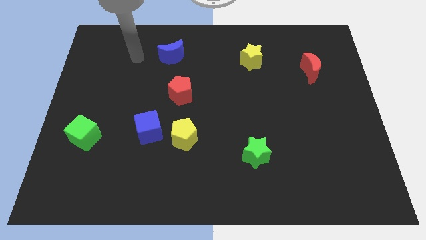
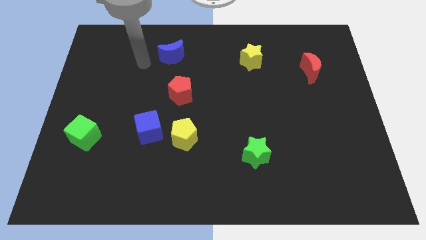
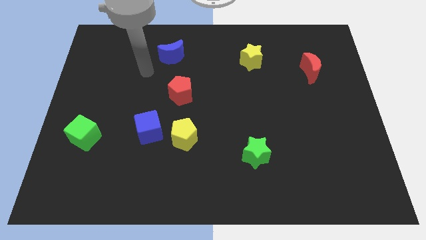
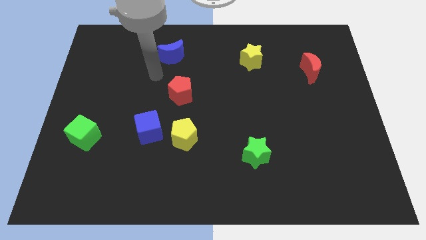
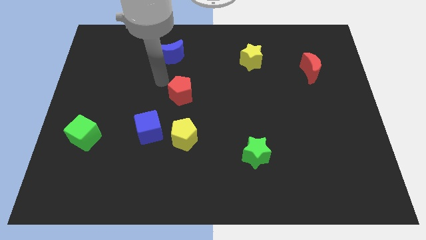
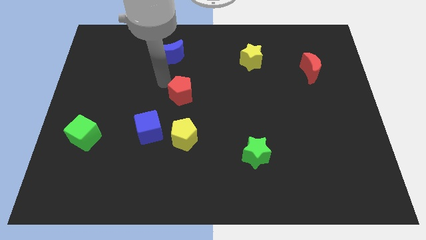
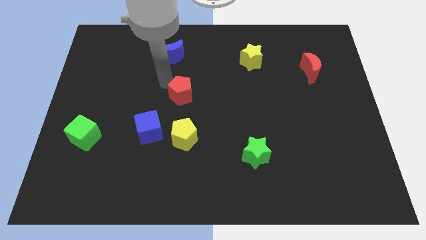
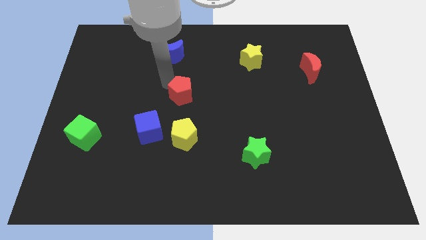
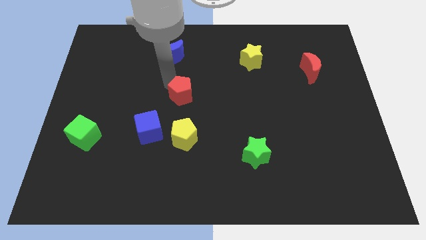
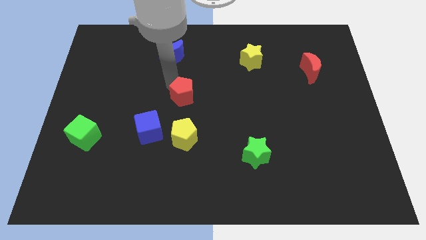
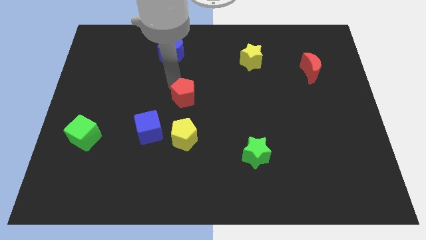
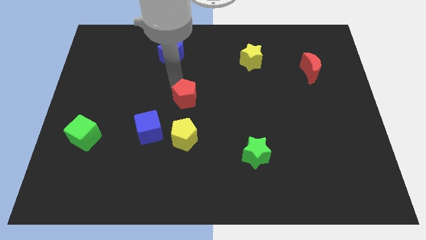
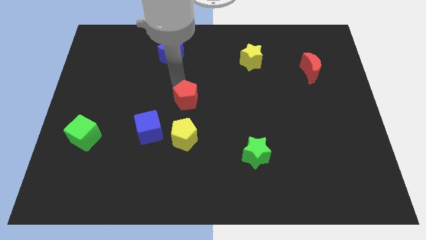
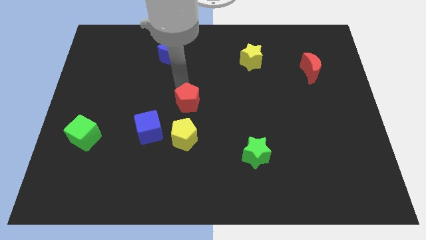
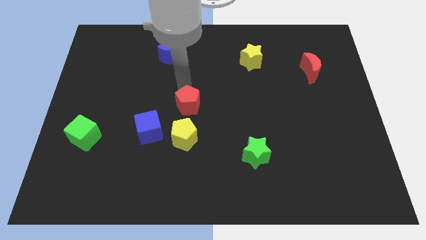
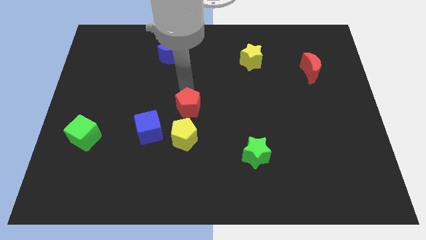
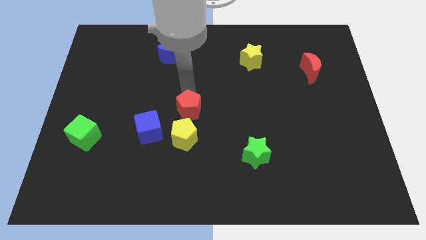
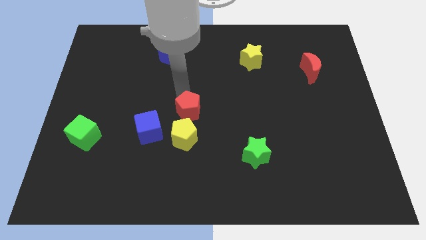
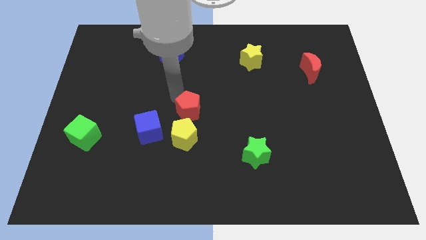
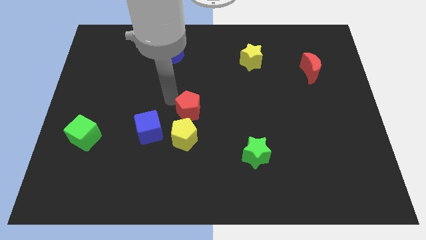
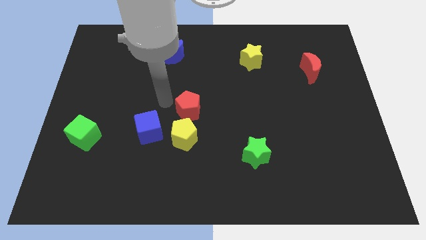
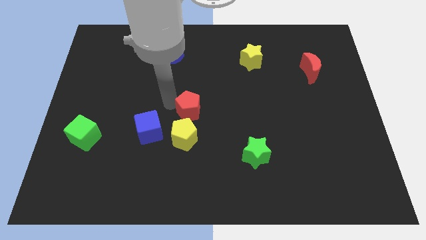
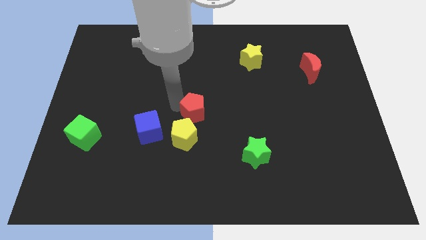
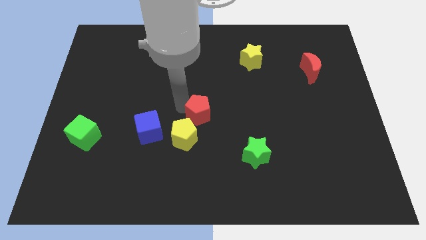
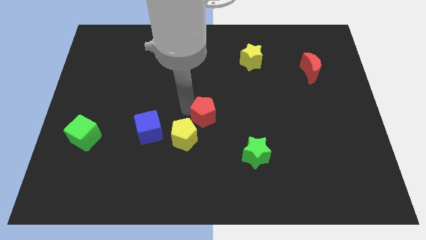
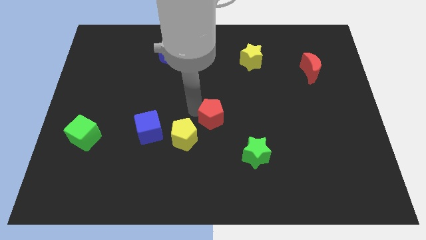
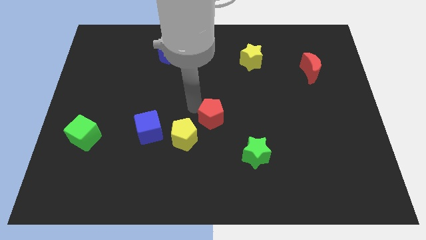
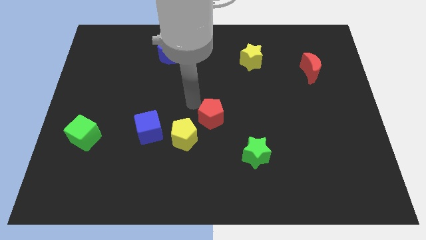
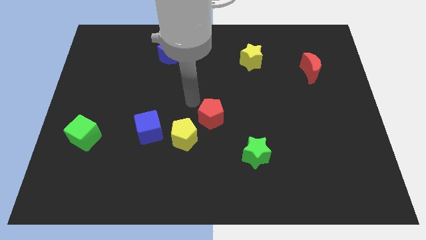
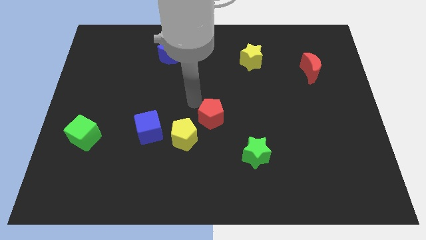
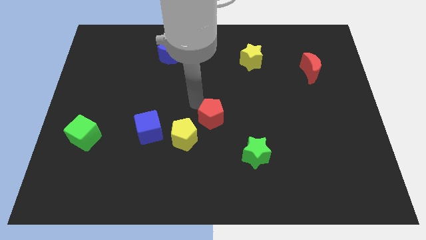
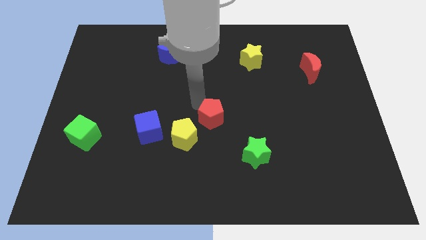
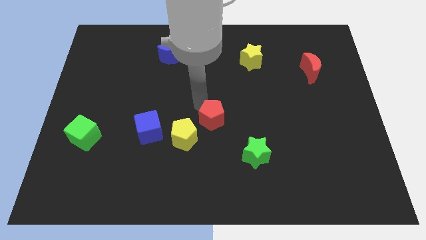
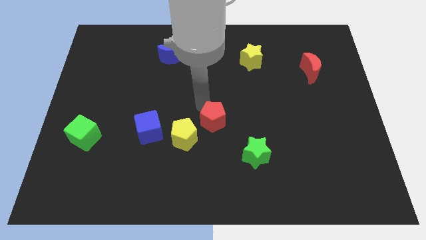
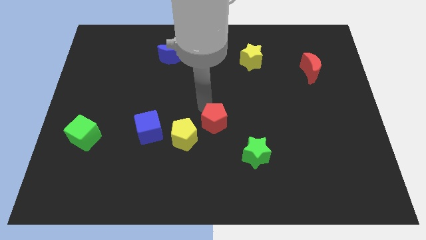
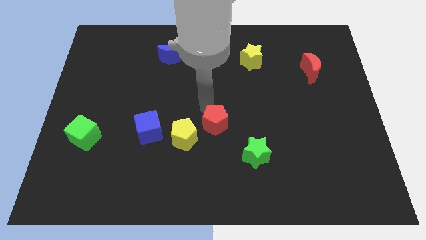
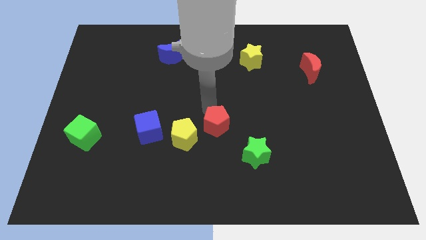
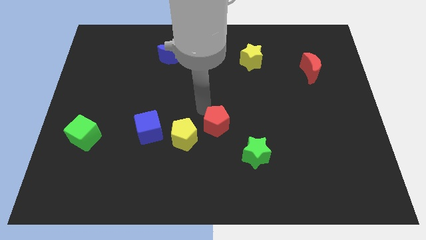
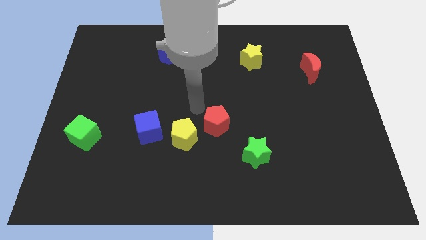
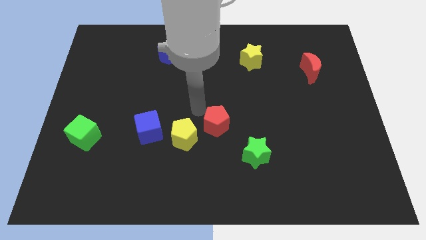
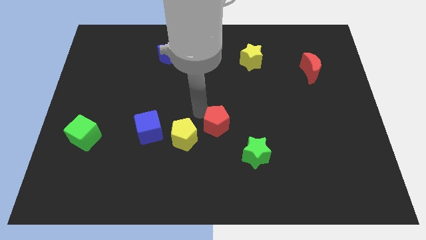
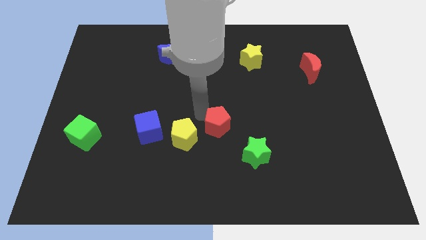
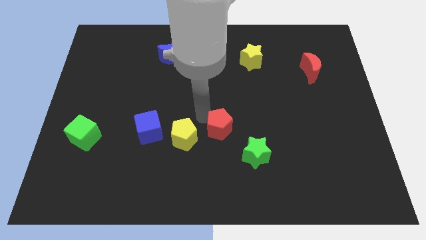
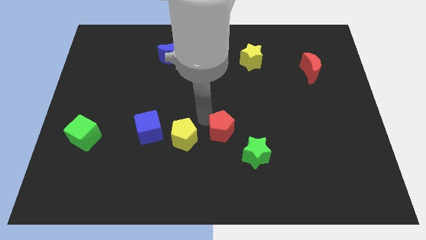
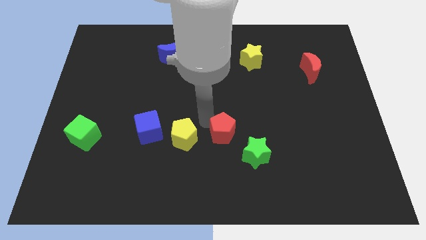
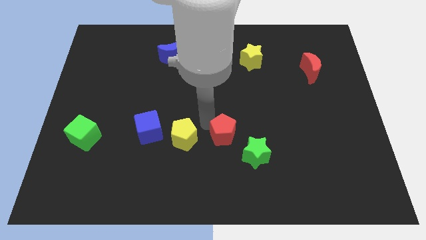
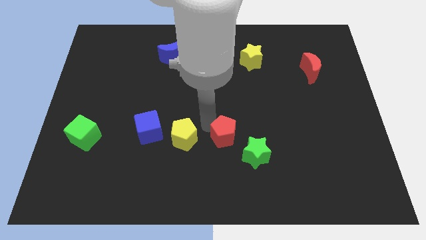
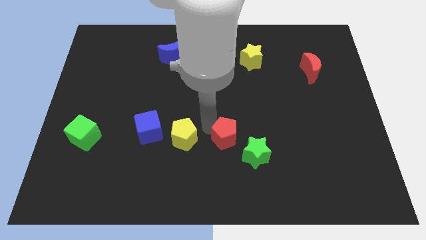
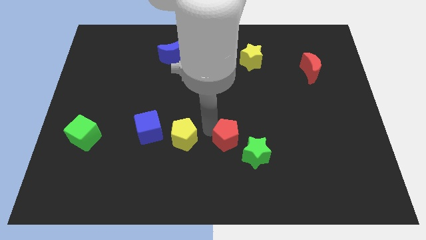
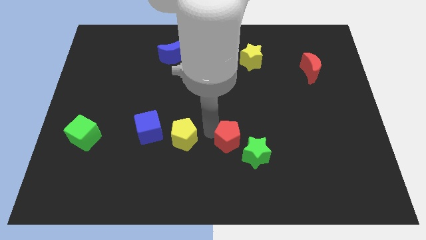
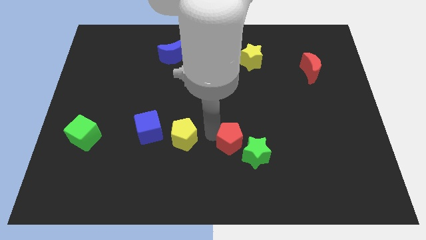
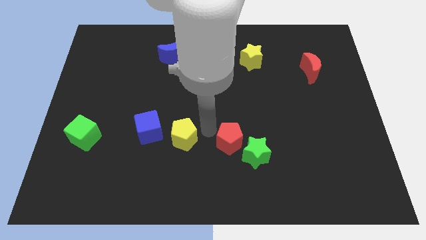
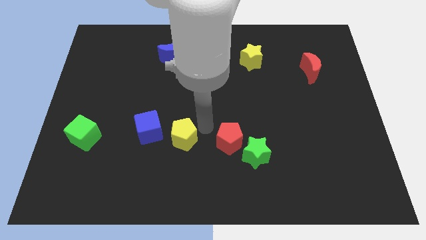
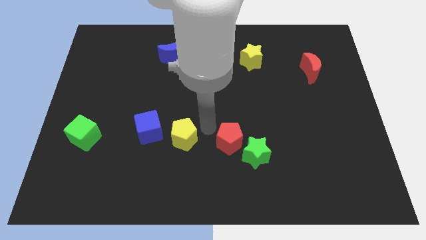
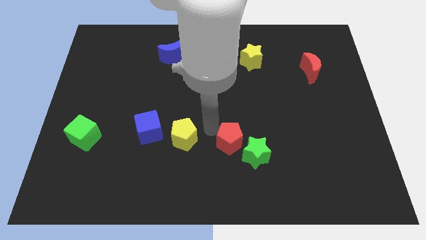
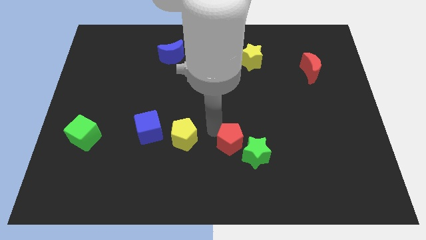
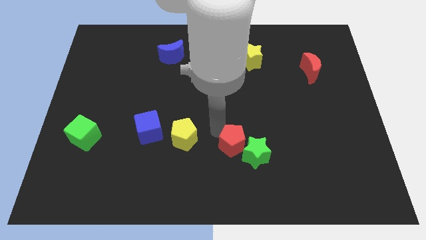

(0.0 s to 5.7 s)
put the red pentagon close to the green star

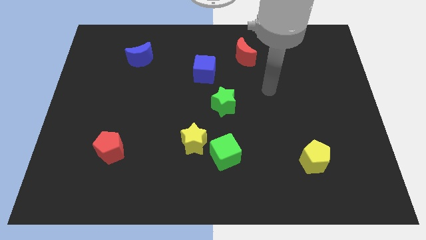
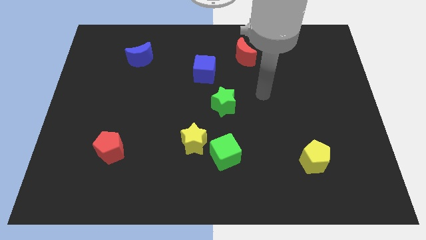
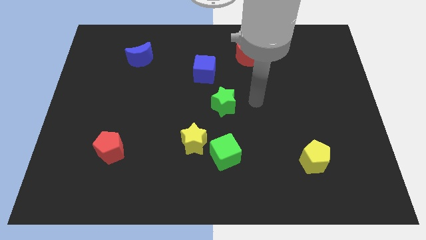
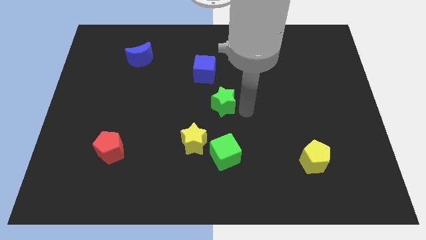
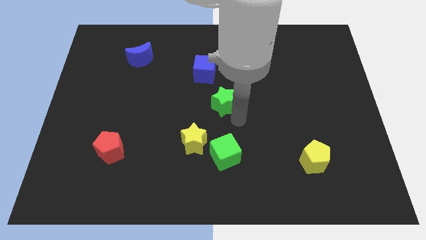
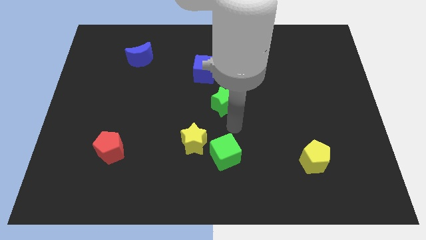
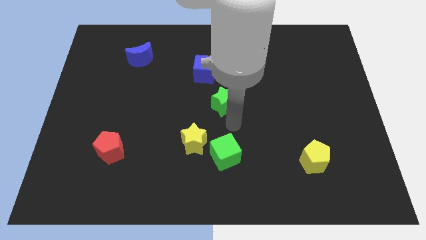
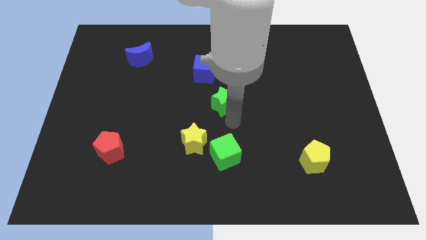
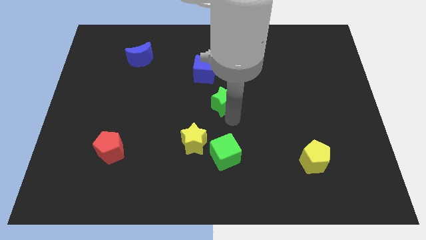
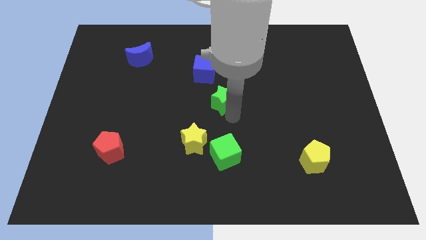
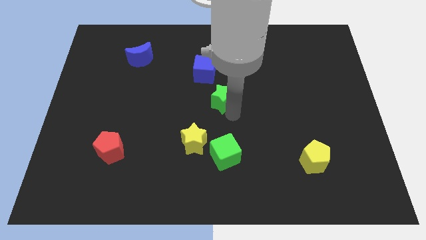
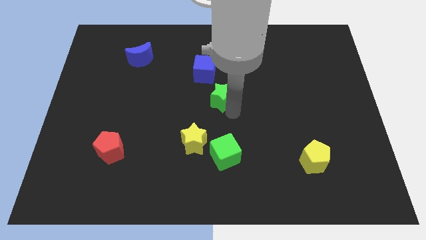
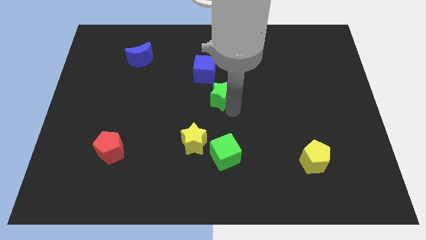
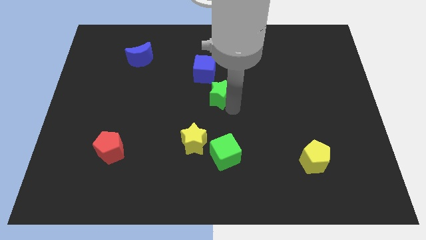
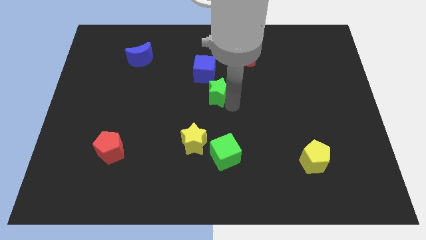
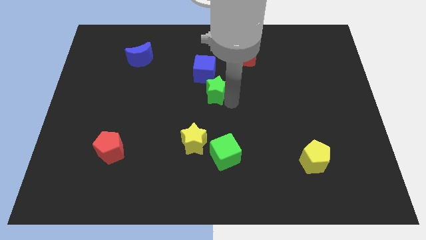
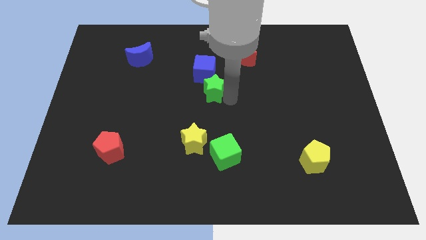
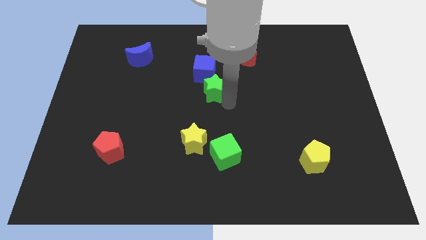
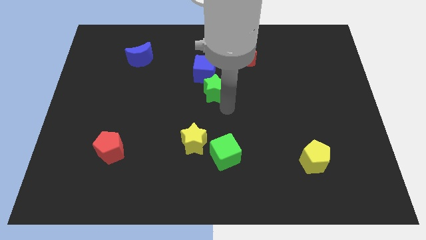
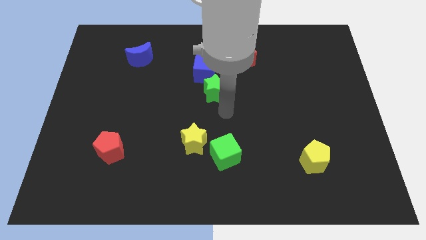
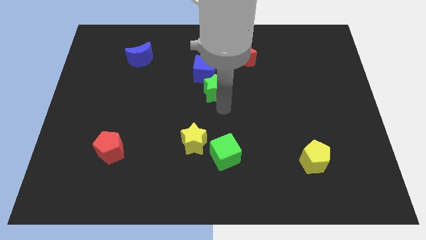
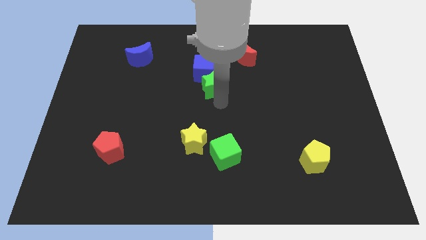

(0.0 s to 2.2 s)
move the green star close to the blue cube
